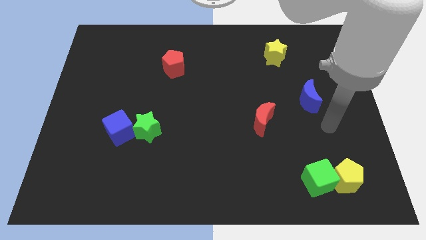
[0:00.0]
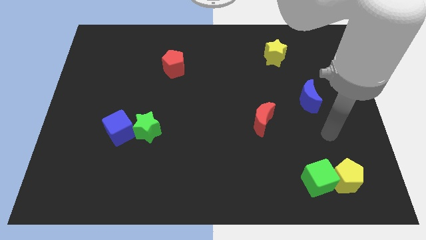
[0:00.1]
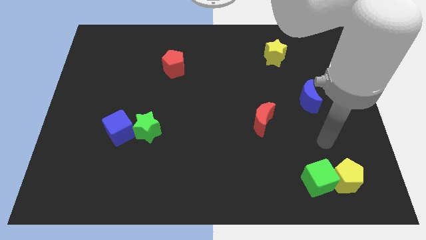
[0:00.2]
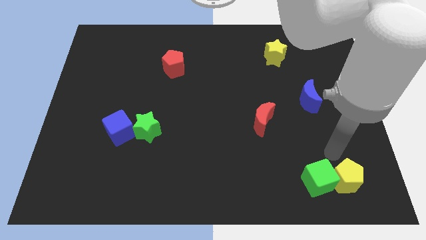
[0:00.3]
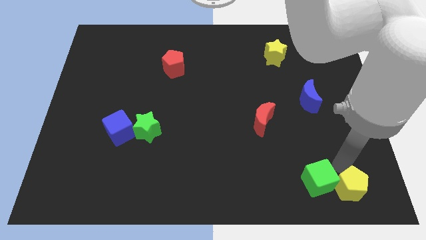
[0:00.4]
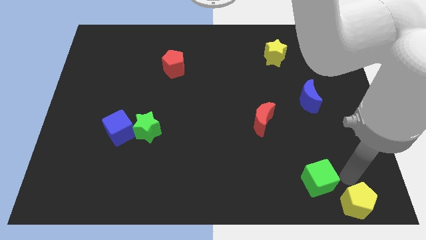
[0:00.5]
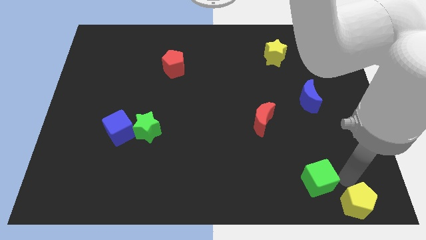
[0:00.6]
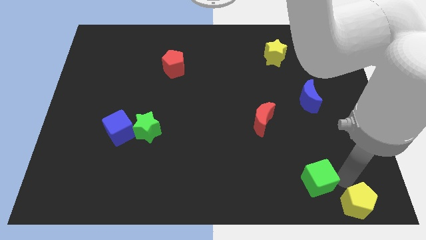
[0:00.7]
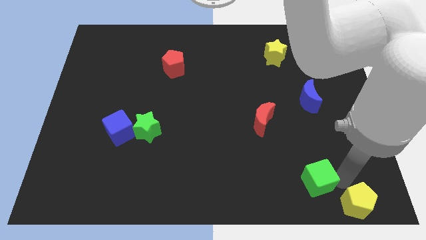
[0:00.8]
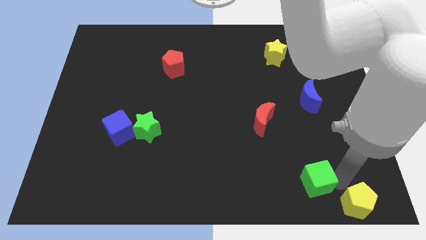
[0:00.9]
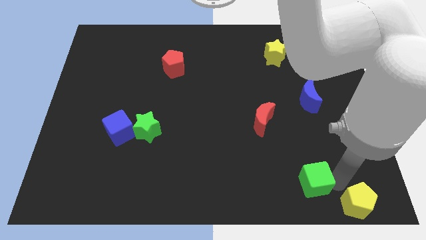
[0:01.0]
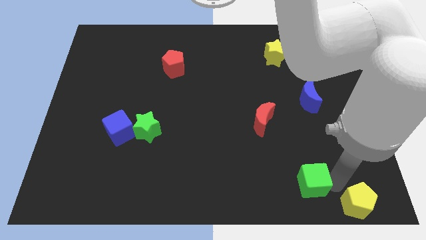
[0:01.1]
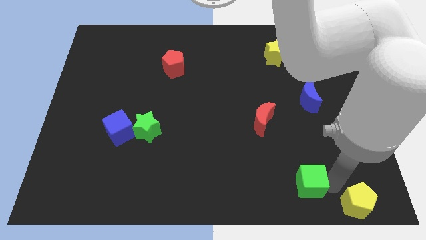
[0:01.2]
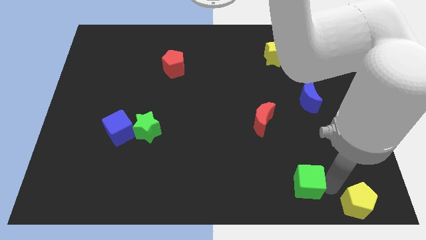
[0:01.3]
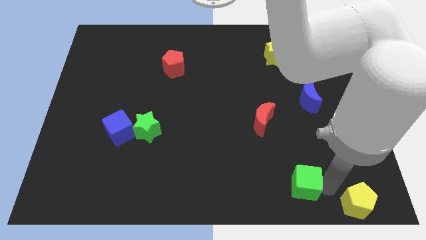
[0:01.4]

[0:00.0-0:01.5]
move the green cube away from the yellow pentagon

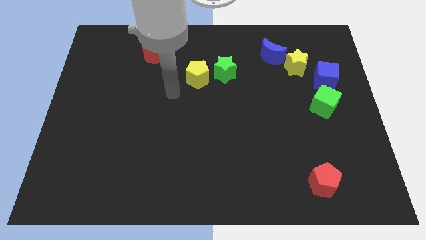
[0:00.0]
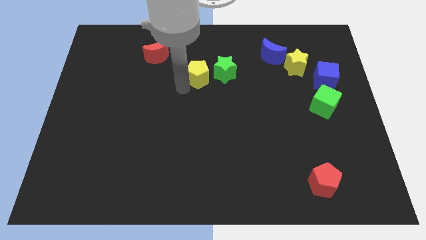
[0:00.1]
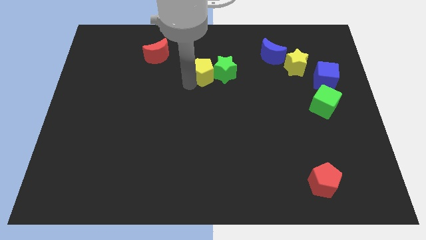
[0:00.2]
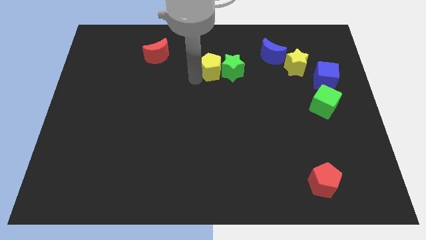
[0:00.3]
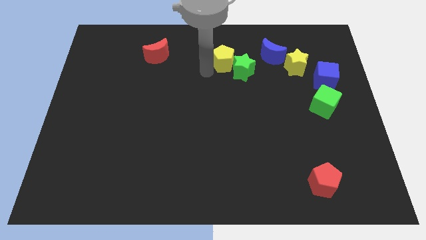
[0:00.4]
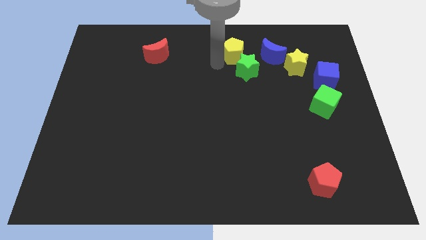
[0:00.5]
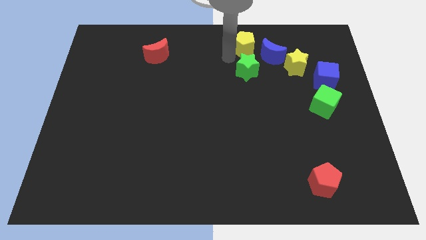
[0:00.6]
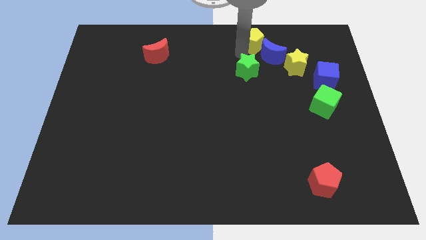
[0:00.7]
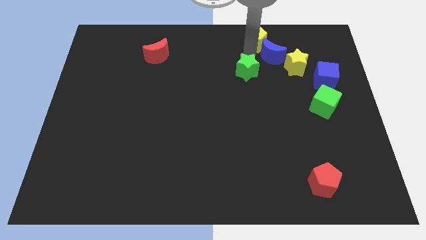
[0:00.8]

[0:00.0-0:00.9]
pull the green star apart from the yellow pentagon

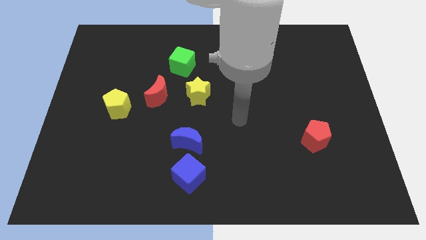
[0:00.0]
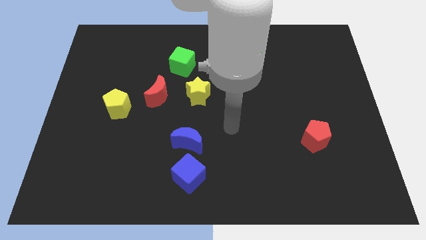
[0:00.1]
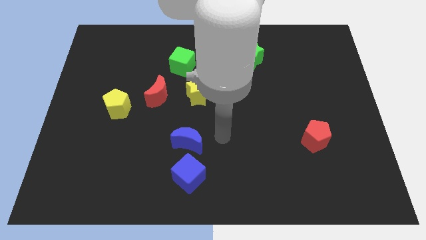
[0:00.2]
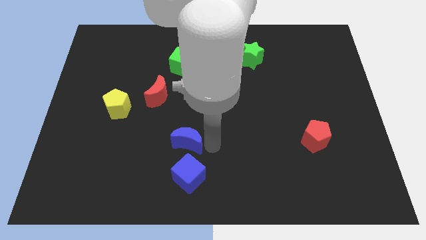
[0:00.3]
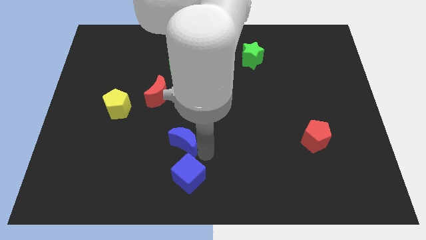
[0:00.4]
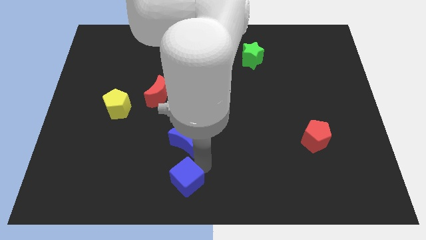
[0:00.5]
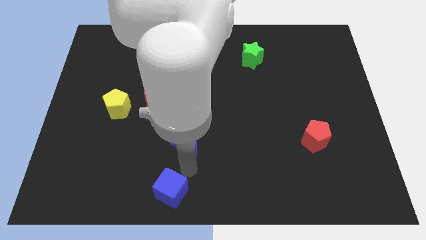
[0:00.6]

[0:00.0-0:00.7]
pull the blue moon apart from the blue cube

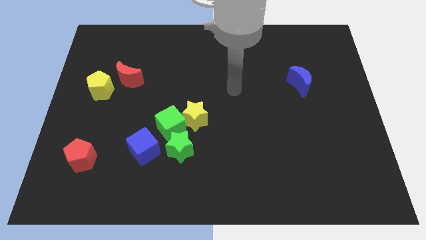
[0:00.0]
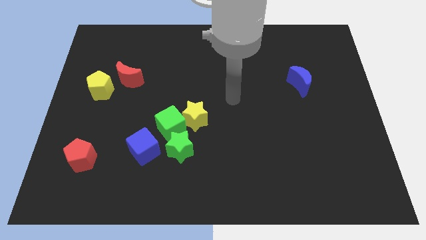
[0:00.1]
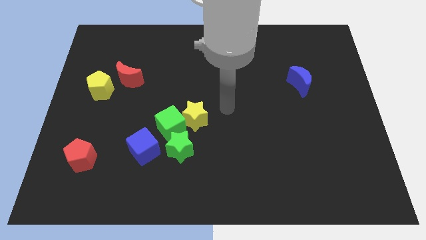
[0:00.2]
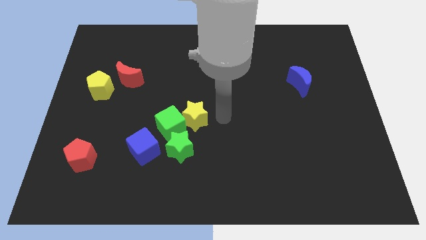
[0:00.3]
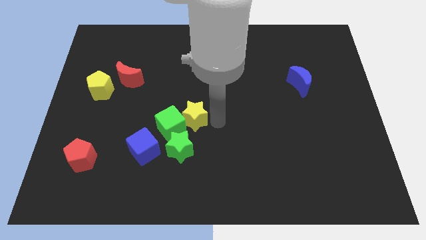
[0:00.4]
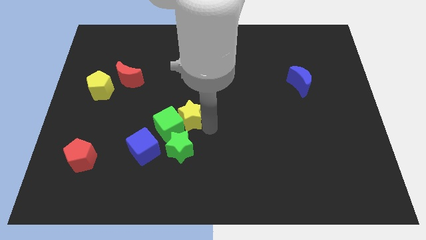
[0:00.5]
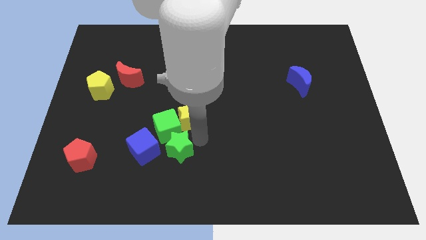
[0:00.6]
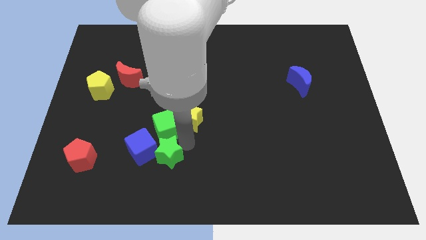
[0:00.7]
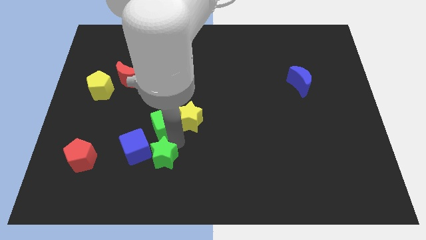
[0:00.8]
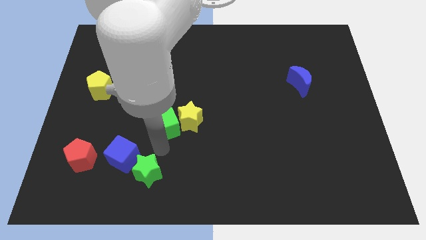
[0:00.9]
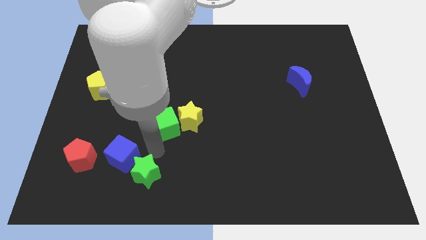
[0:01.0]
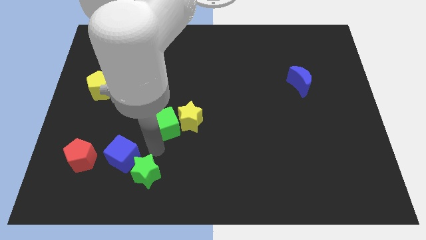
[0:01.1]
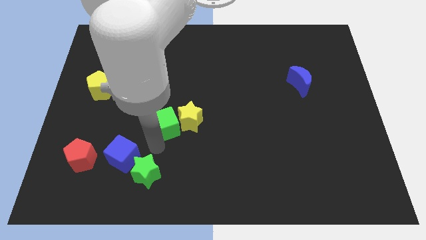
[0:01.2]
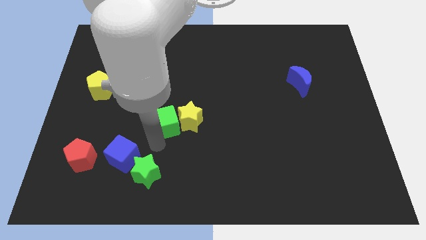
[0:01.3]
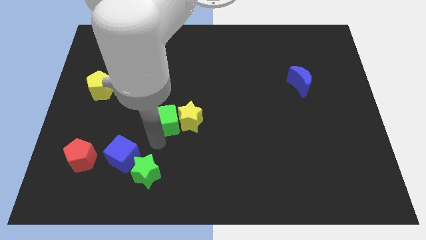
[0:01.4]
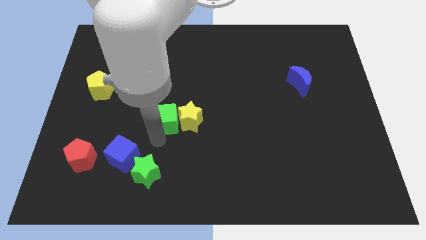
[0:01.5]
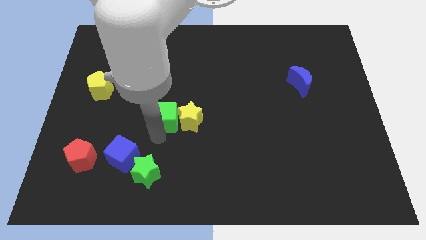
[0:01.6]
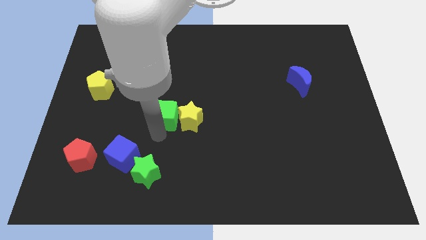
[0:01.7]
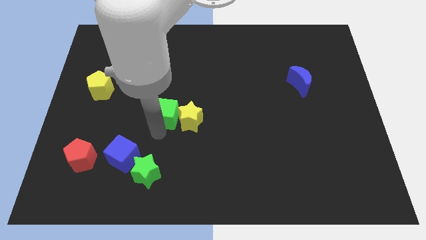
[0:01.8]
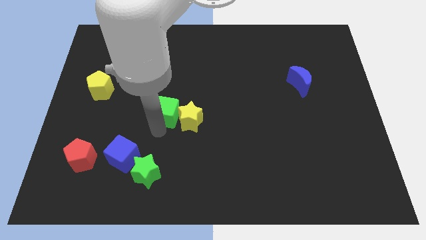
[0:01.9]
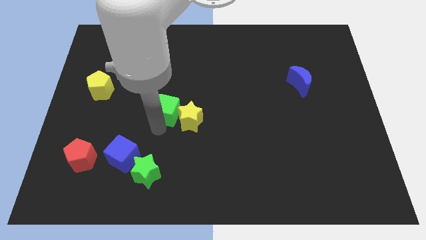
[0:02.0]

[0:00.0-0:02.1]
pull the green cube apart from the group

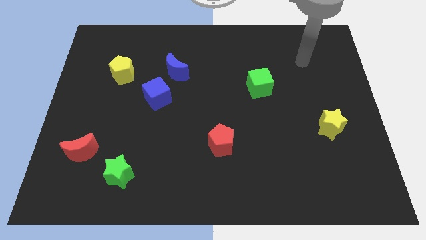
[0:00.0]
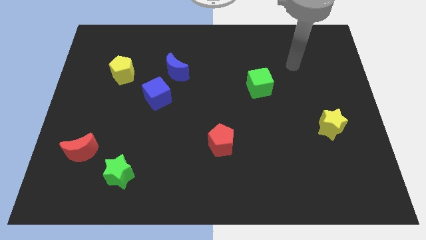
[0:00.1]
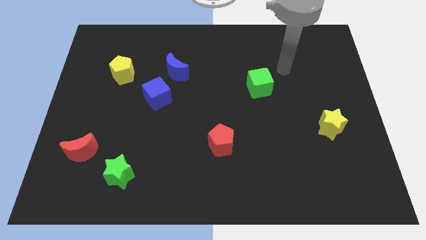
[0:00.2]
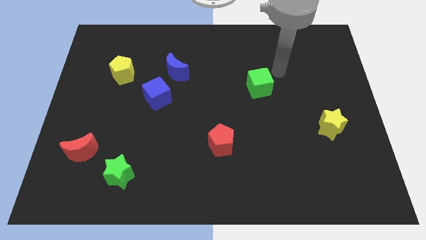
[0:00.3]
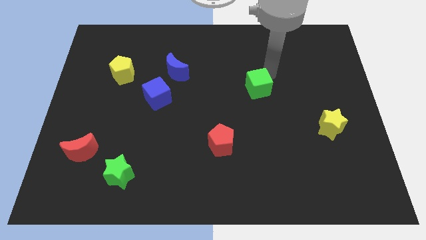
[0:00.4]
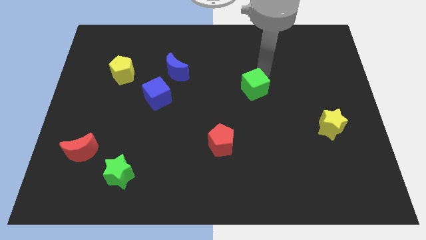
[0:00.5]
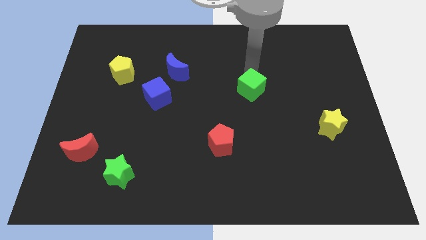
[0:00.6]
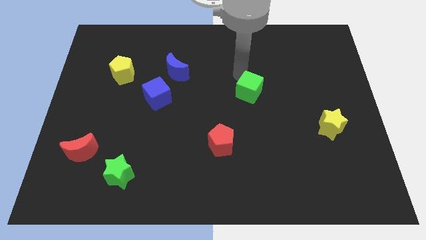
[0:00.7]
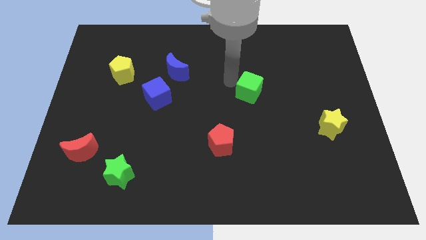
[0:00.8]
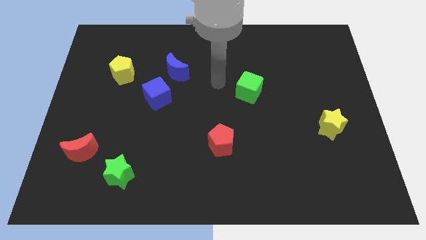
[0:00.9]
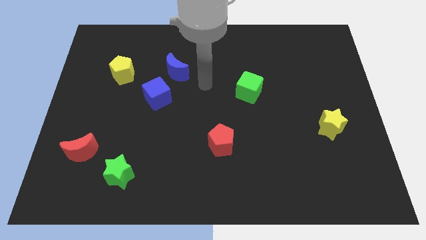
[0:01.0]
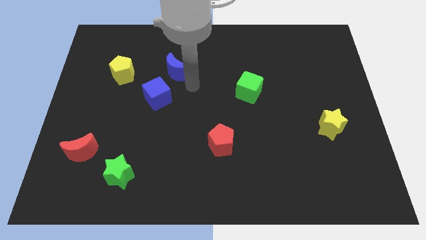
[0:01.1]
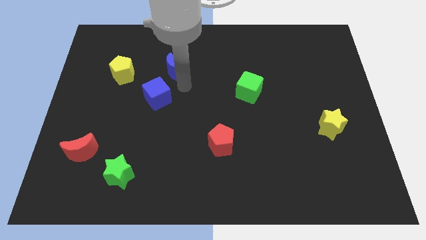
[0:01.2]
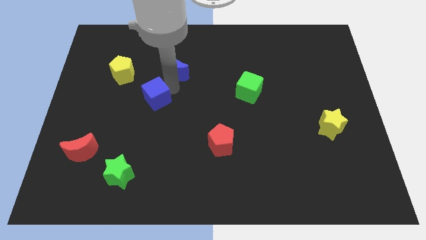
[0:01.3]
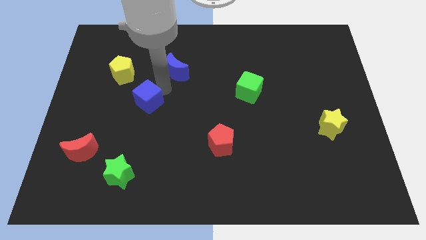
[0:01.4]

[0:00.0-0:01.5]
move the blue moon away from the blue cube

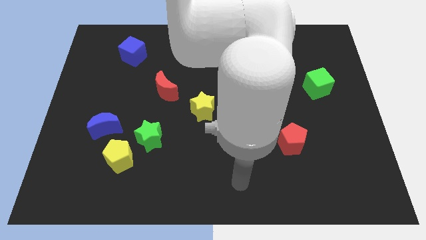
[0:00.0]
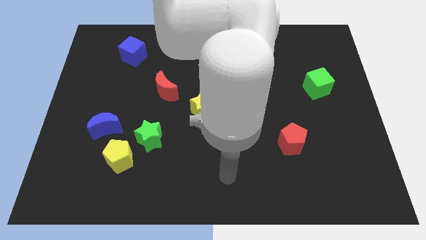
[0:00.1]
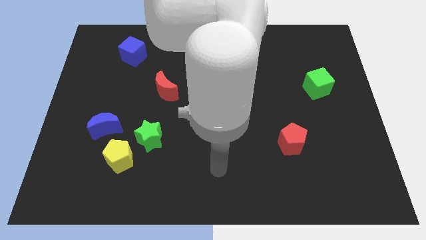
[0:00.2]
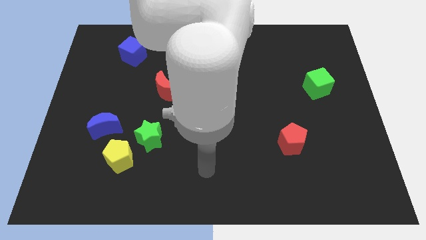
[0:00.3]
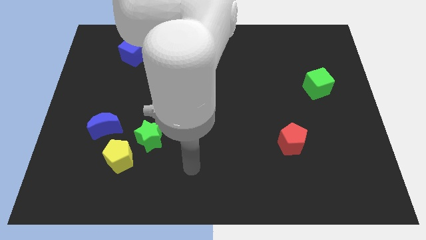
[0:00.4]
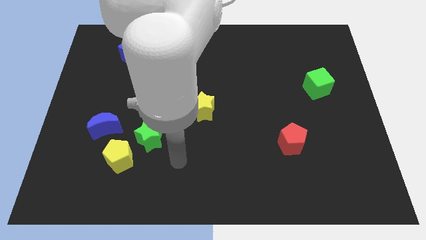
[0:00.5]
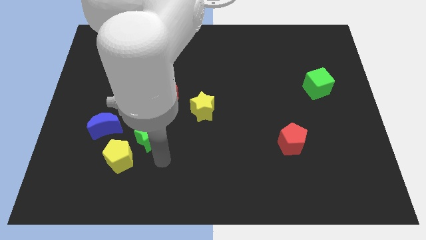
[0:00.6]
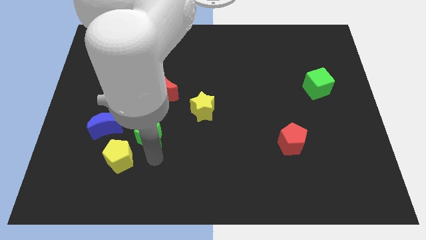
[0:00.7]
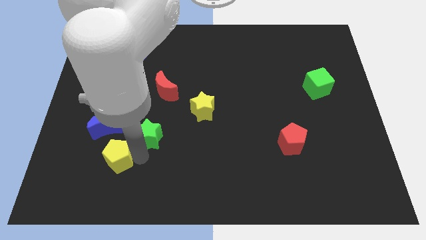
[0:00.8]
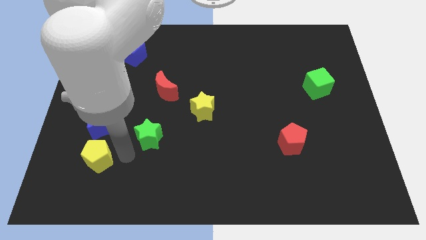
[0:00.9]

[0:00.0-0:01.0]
separate the green star from the yellow pentagon

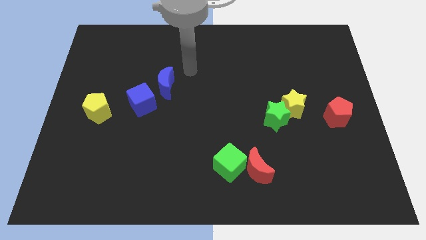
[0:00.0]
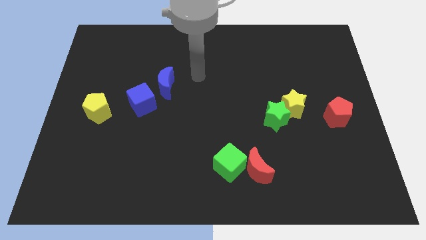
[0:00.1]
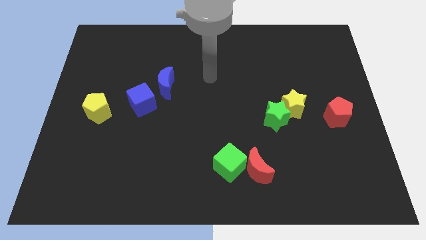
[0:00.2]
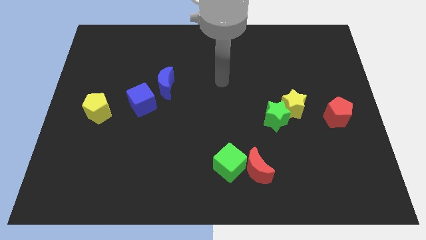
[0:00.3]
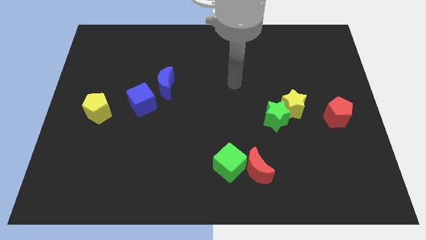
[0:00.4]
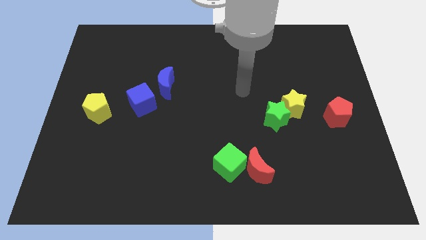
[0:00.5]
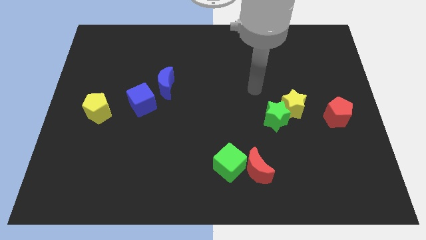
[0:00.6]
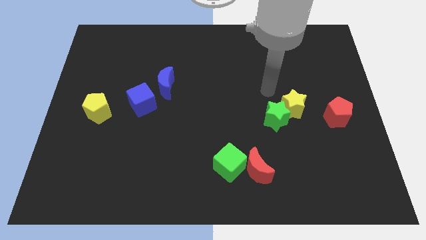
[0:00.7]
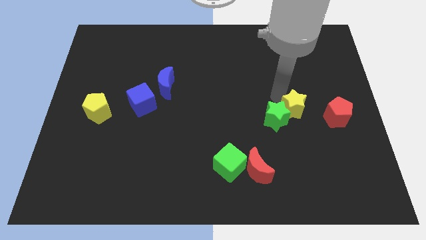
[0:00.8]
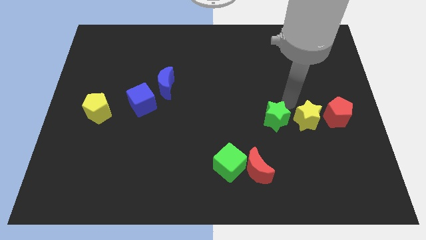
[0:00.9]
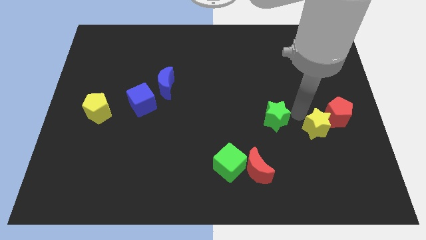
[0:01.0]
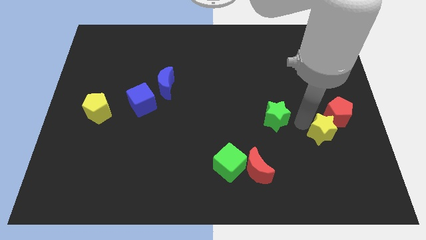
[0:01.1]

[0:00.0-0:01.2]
move the green star away from the yellow star

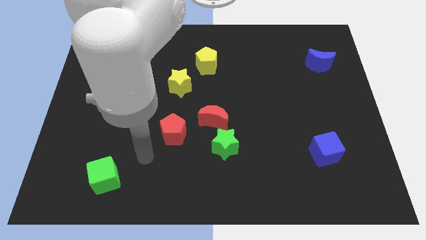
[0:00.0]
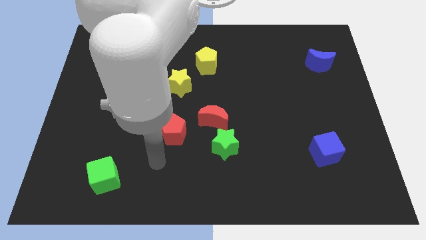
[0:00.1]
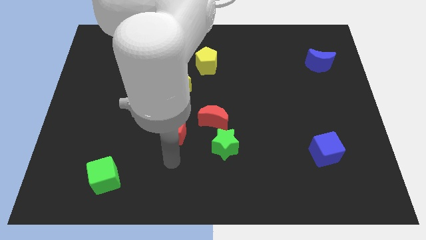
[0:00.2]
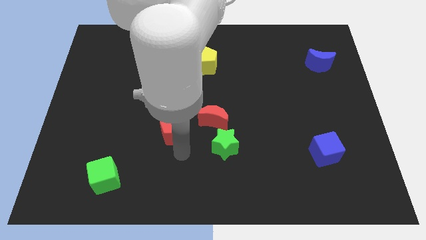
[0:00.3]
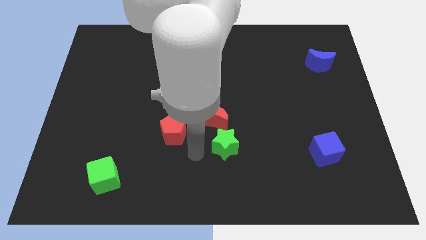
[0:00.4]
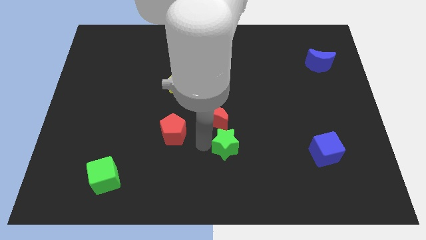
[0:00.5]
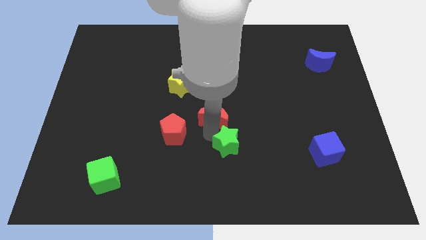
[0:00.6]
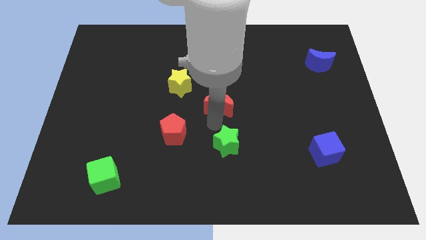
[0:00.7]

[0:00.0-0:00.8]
move the green star away from the red moon
